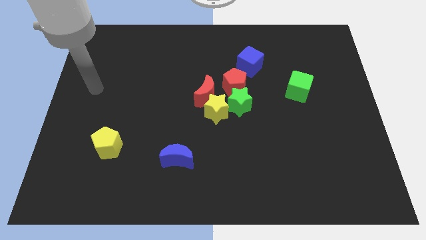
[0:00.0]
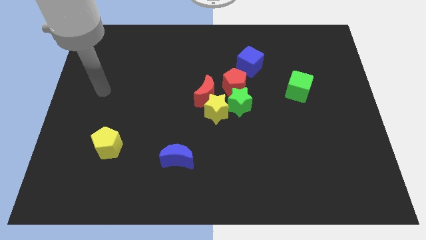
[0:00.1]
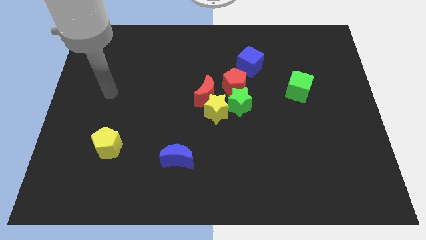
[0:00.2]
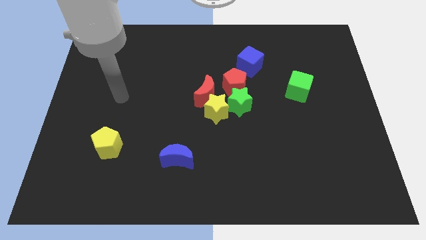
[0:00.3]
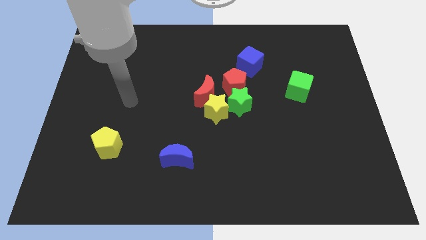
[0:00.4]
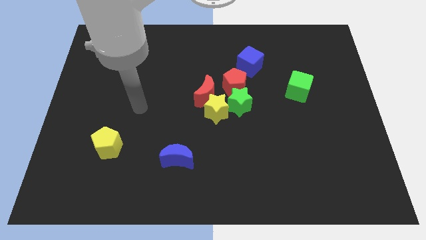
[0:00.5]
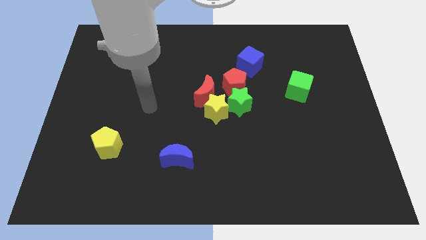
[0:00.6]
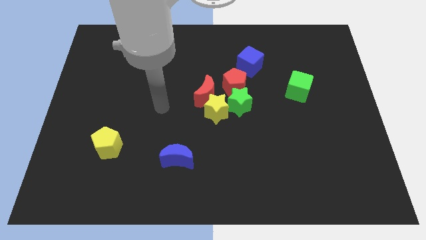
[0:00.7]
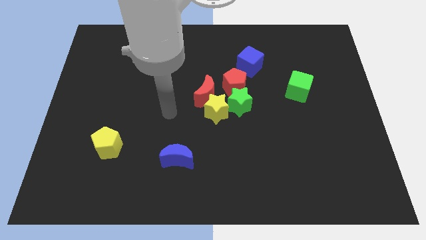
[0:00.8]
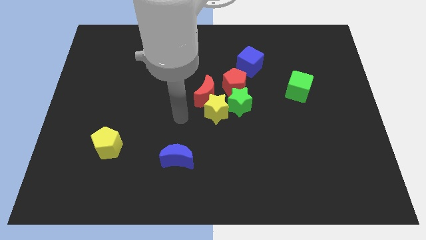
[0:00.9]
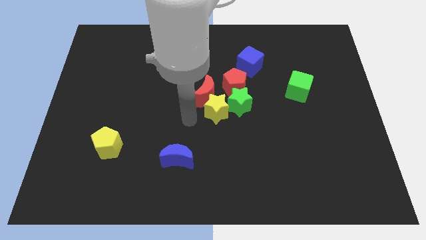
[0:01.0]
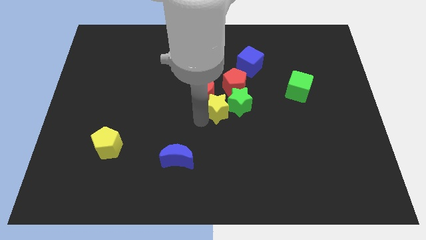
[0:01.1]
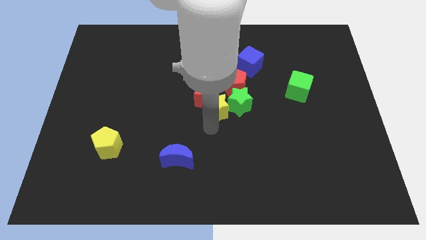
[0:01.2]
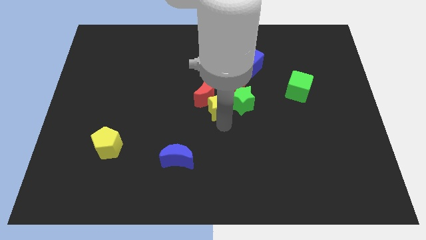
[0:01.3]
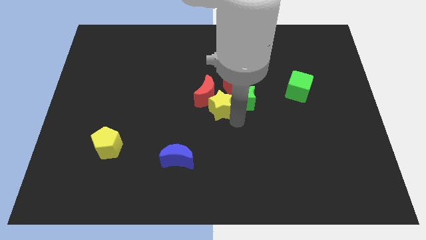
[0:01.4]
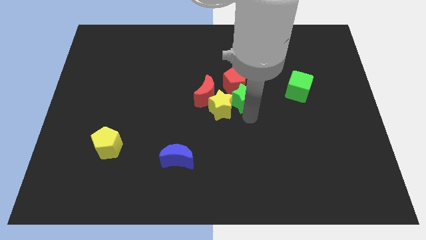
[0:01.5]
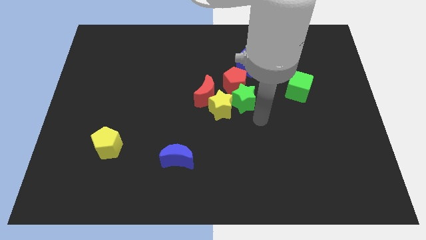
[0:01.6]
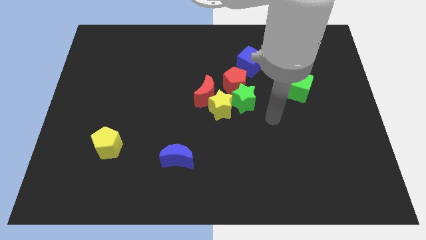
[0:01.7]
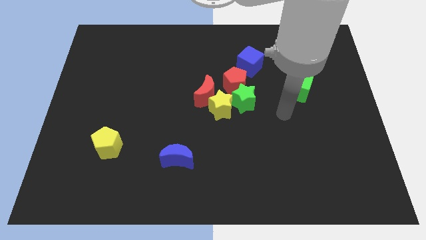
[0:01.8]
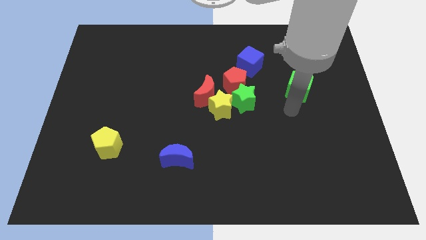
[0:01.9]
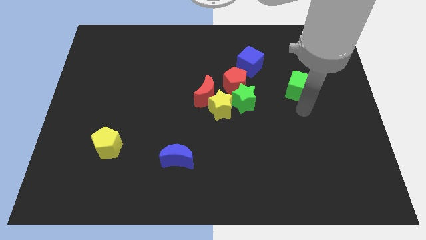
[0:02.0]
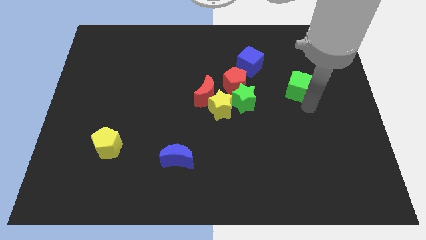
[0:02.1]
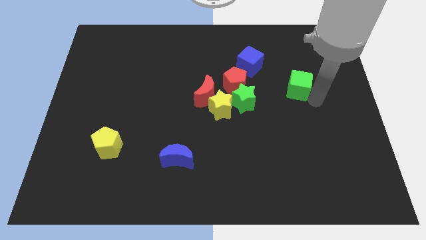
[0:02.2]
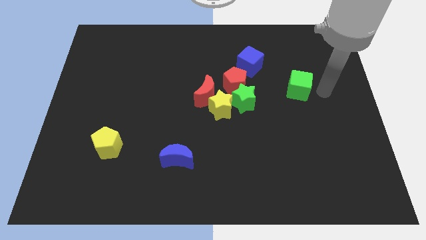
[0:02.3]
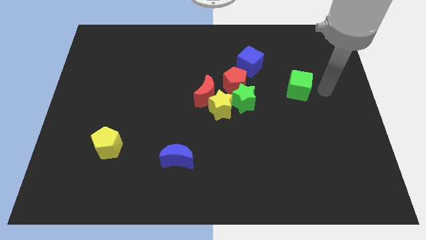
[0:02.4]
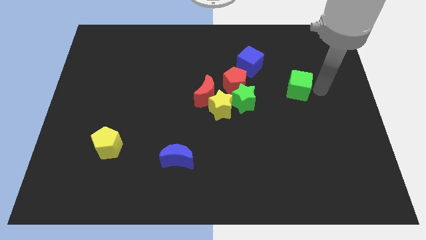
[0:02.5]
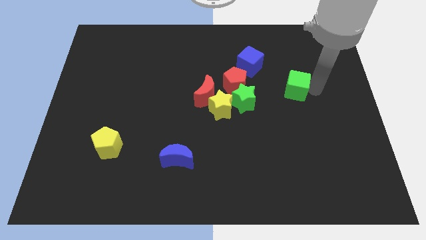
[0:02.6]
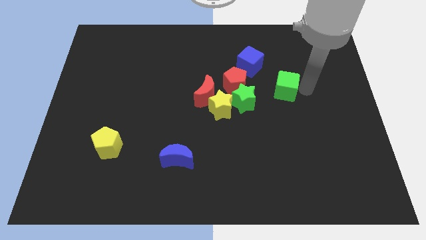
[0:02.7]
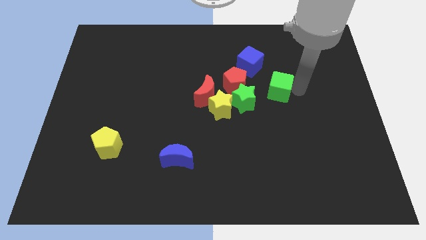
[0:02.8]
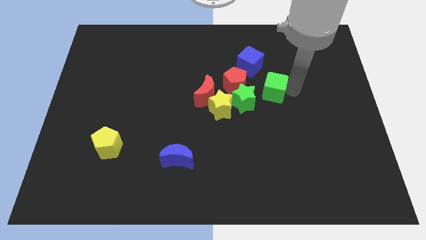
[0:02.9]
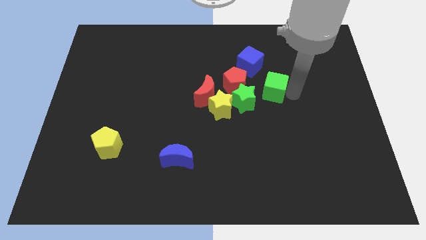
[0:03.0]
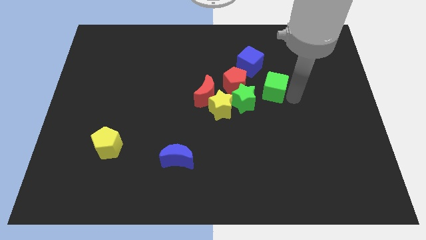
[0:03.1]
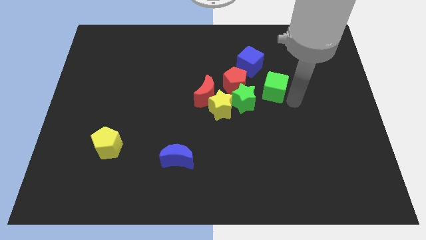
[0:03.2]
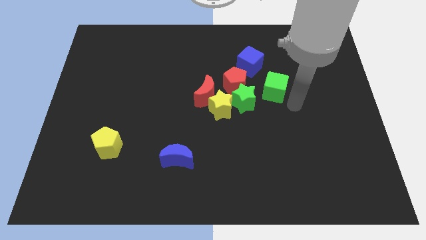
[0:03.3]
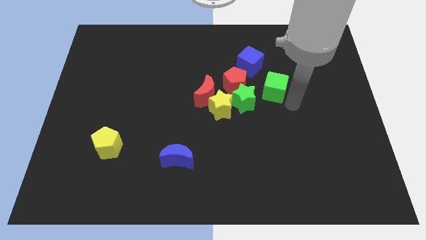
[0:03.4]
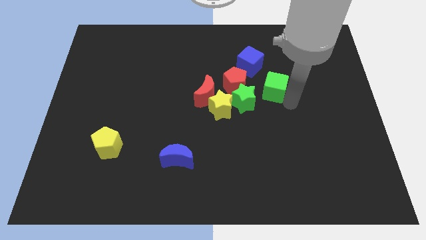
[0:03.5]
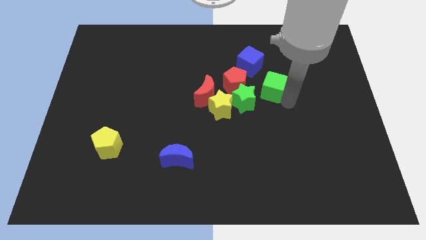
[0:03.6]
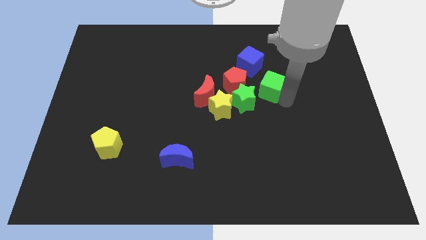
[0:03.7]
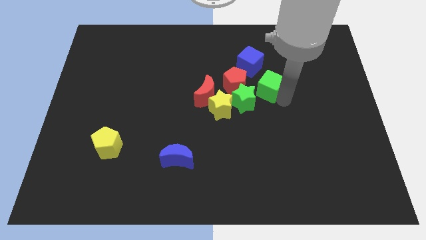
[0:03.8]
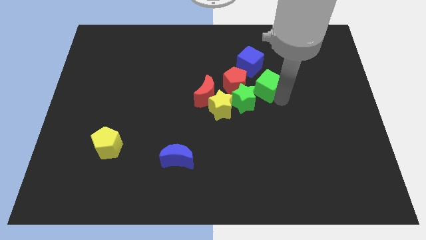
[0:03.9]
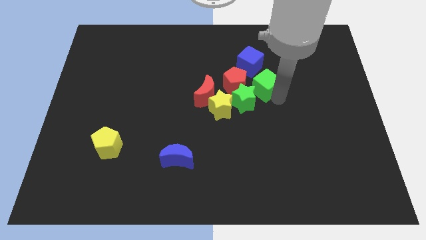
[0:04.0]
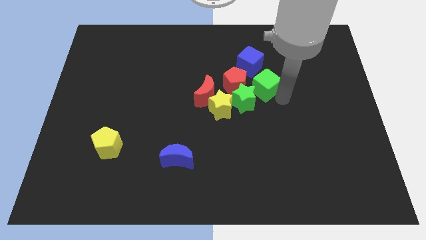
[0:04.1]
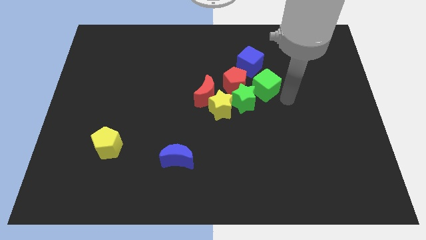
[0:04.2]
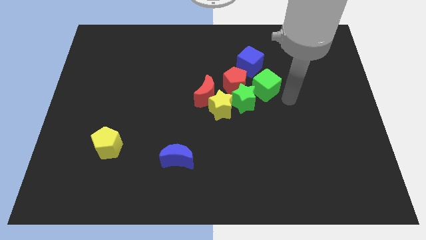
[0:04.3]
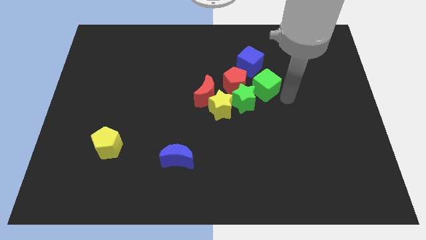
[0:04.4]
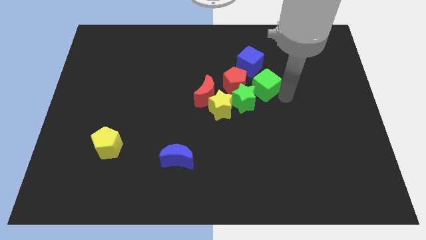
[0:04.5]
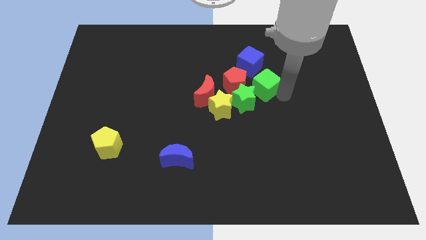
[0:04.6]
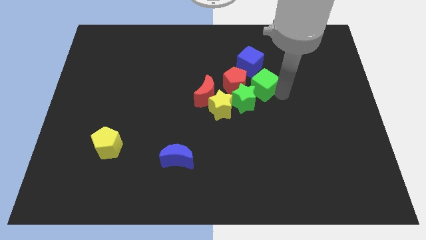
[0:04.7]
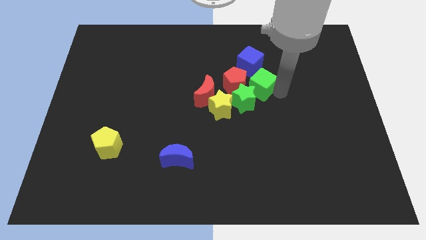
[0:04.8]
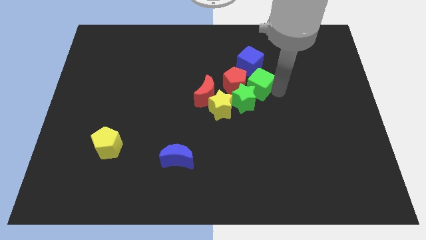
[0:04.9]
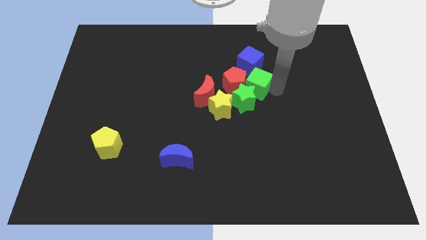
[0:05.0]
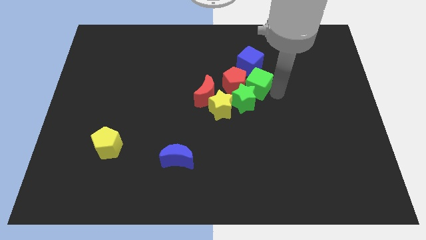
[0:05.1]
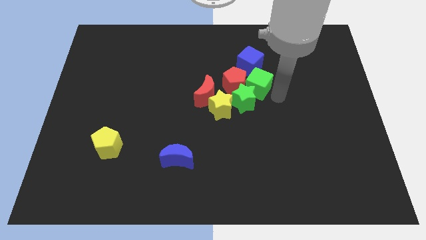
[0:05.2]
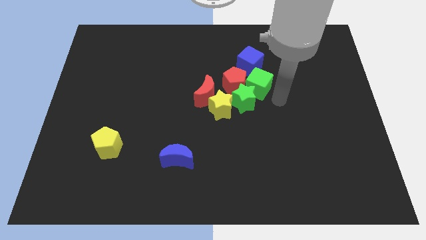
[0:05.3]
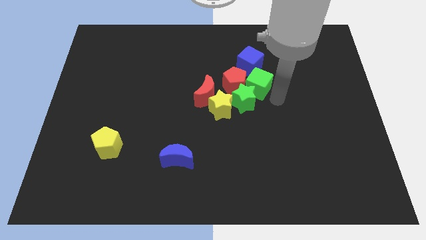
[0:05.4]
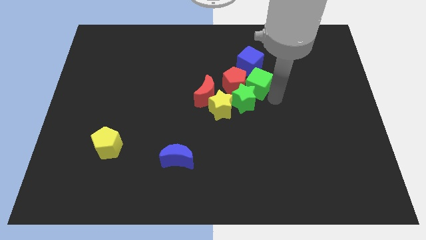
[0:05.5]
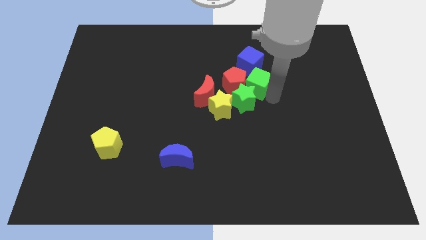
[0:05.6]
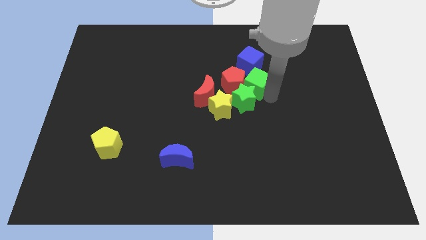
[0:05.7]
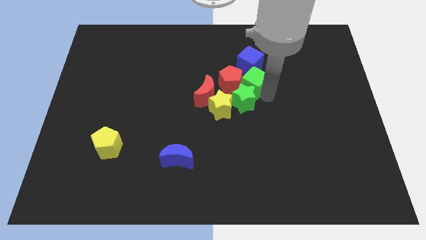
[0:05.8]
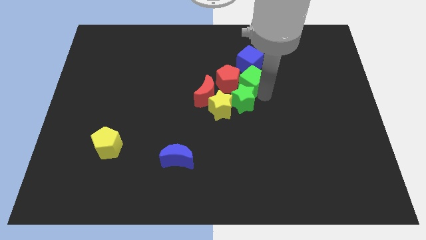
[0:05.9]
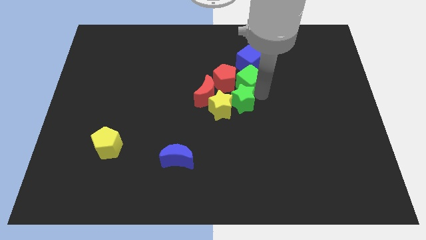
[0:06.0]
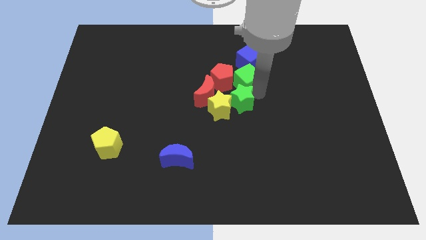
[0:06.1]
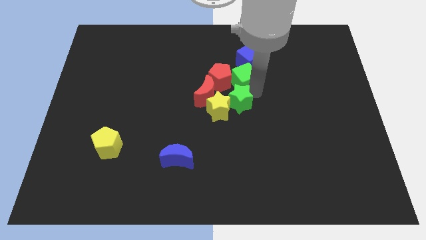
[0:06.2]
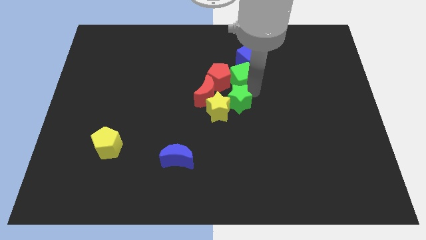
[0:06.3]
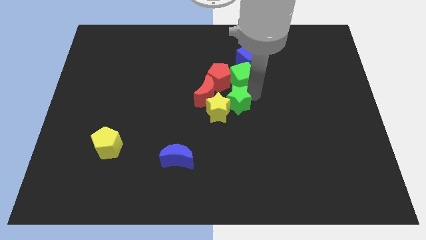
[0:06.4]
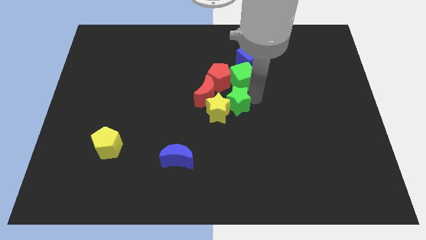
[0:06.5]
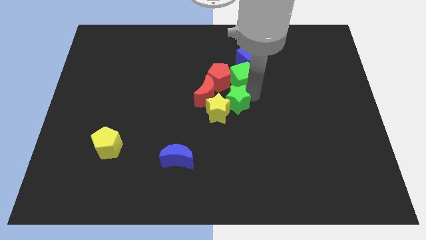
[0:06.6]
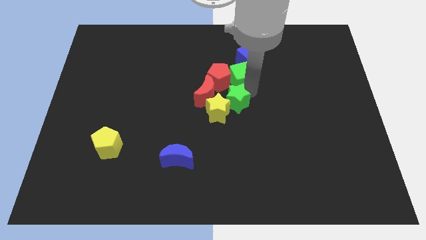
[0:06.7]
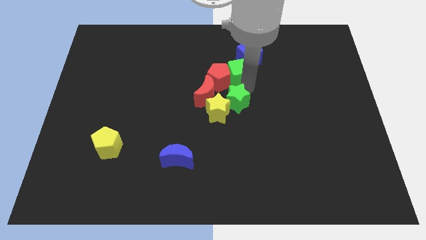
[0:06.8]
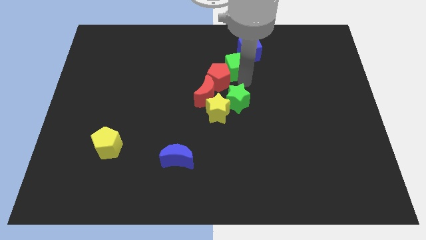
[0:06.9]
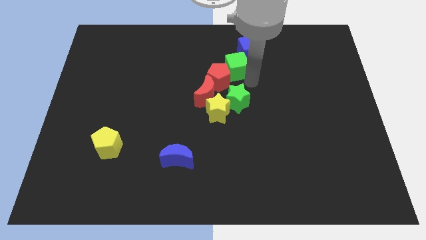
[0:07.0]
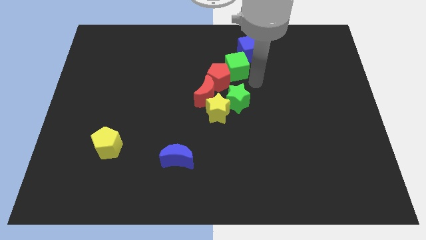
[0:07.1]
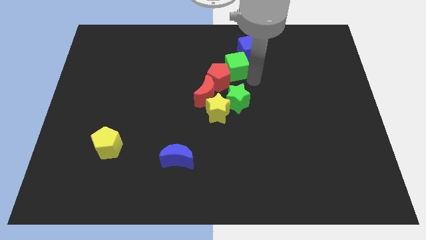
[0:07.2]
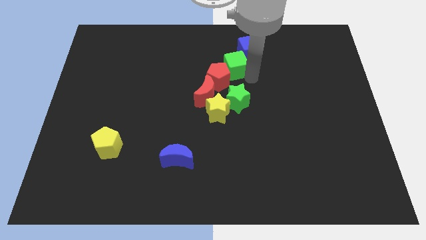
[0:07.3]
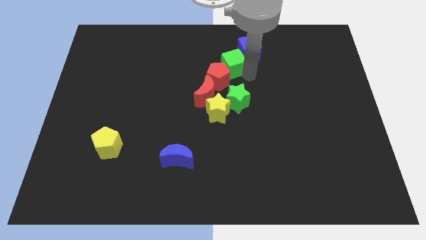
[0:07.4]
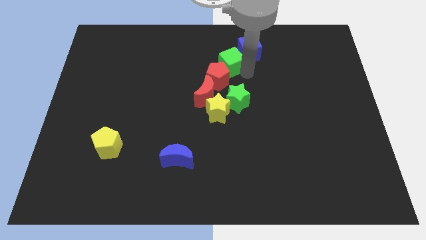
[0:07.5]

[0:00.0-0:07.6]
put the green cube to the left side of the blue cube

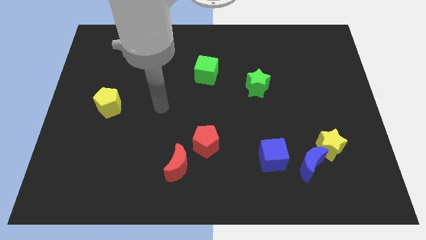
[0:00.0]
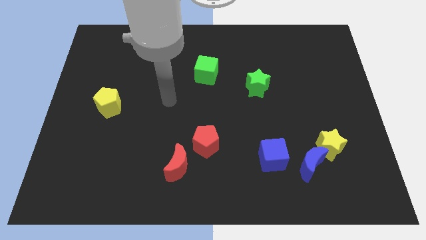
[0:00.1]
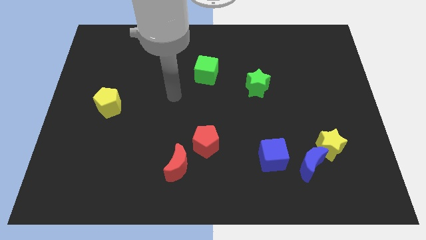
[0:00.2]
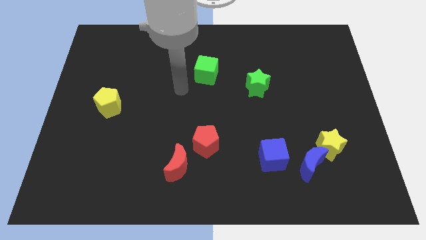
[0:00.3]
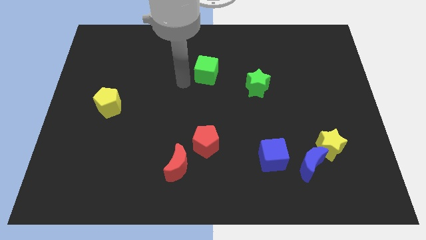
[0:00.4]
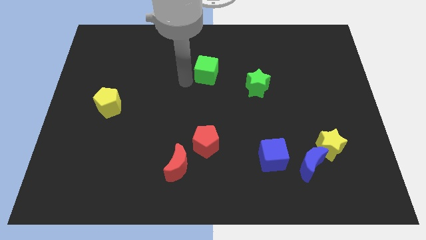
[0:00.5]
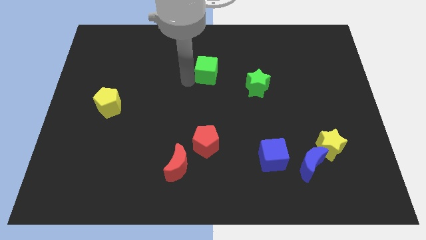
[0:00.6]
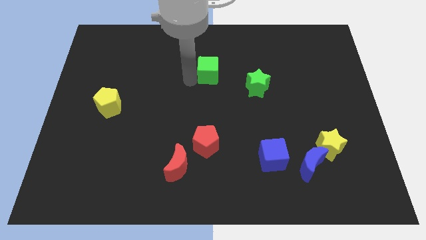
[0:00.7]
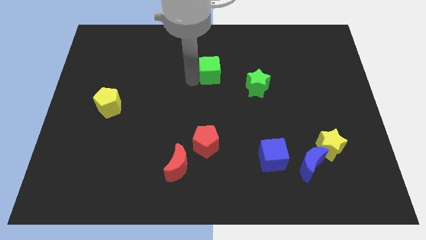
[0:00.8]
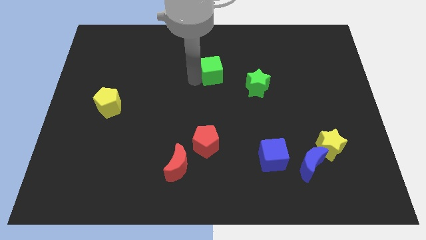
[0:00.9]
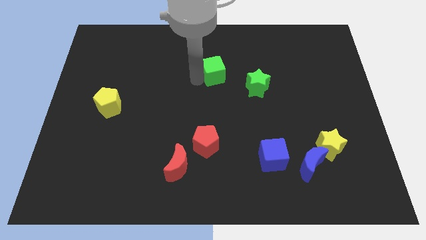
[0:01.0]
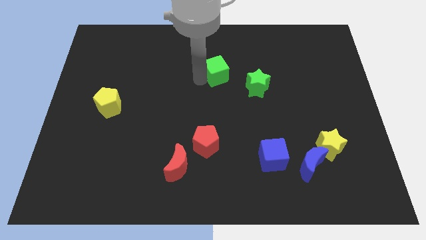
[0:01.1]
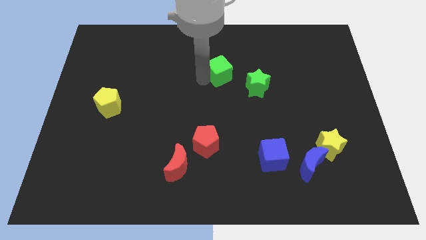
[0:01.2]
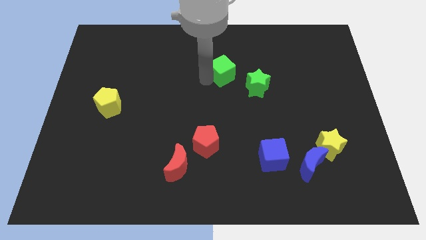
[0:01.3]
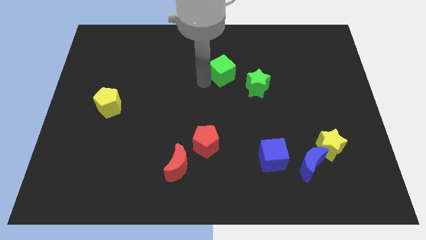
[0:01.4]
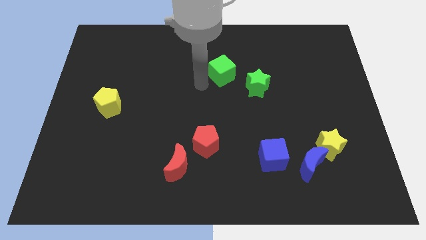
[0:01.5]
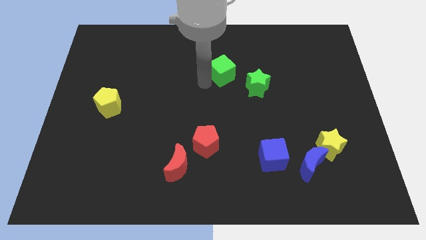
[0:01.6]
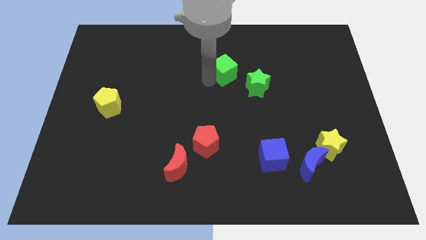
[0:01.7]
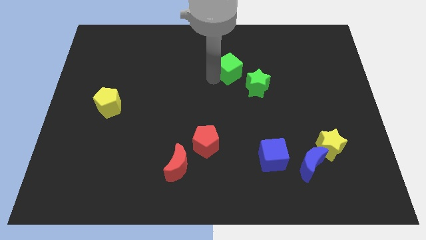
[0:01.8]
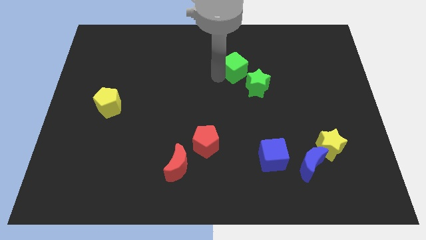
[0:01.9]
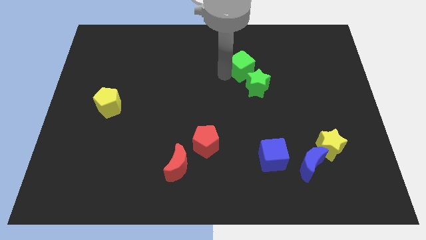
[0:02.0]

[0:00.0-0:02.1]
move the green cube above the green star
